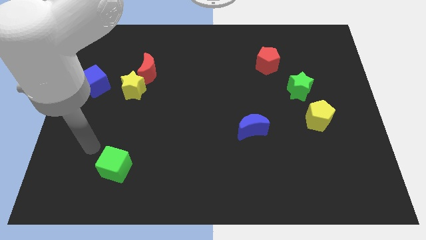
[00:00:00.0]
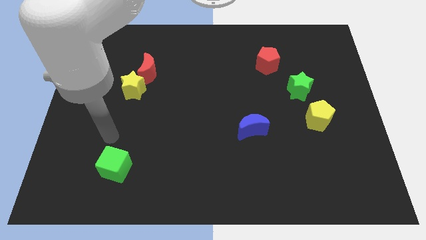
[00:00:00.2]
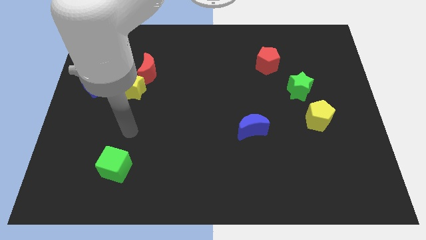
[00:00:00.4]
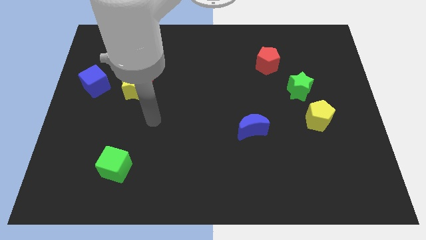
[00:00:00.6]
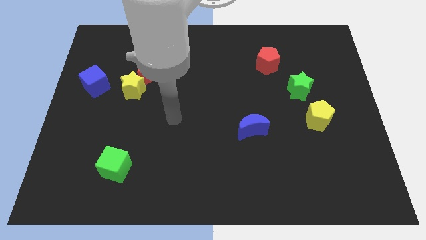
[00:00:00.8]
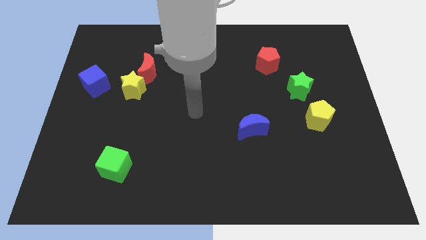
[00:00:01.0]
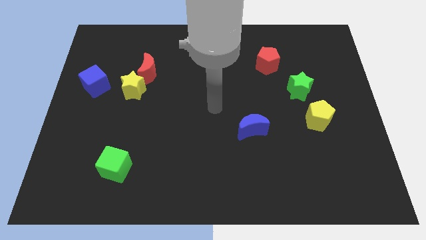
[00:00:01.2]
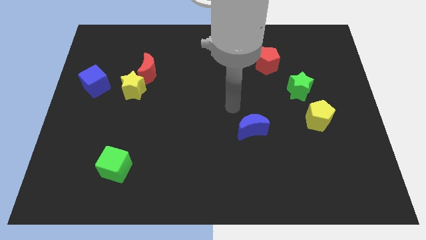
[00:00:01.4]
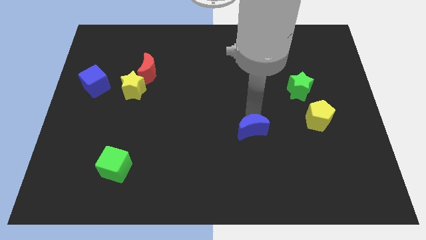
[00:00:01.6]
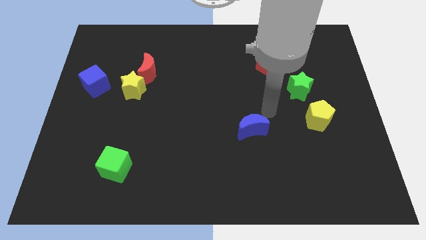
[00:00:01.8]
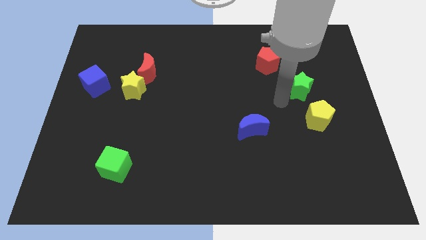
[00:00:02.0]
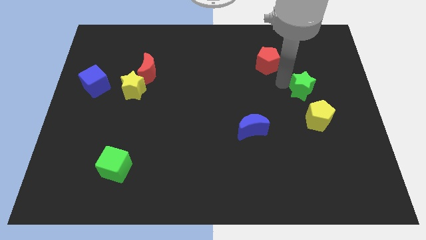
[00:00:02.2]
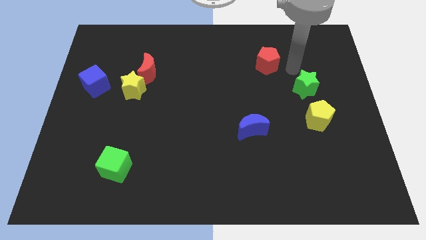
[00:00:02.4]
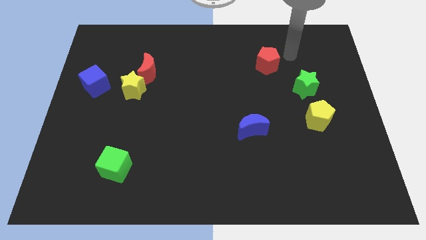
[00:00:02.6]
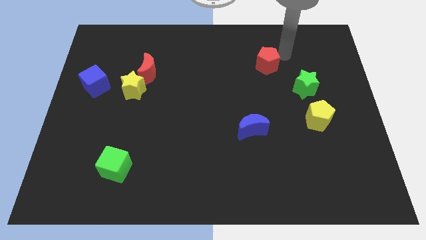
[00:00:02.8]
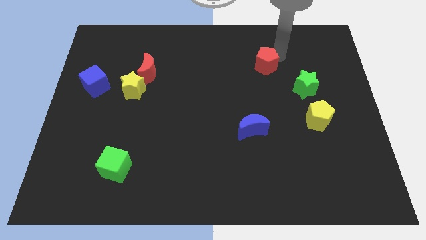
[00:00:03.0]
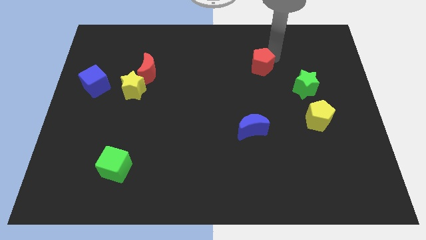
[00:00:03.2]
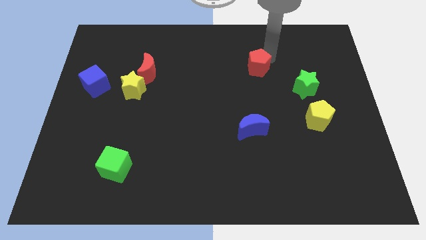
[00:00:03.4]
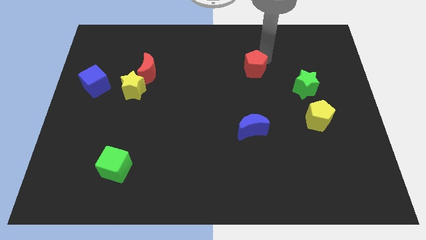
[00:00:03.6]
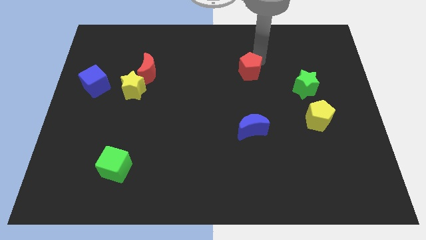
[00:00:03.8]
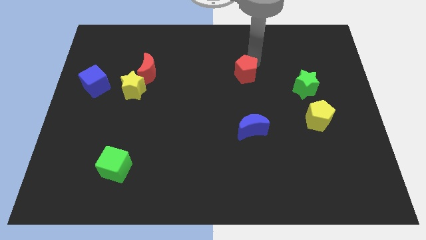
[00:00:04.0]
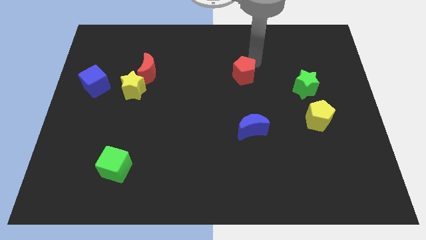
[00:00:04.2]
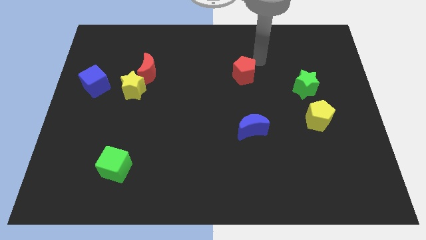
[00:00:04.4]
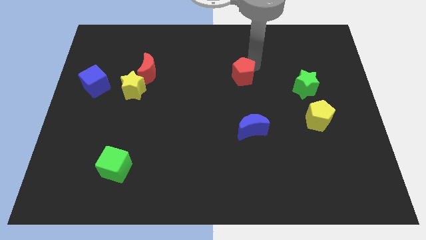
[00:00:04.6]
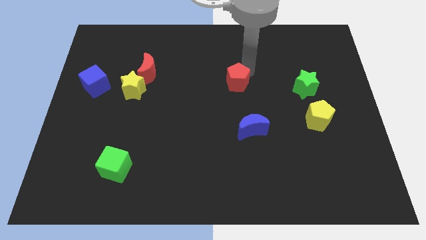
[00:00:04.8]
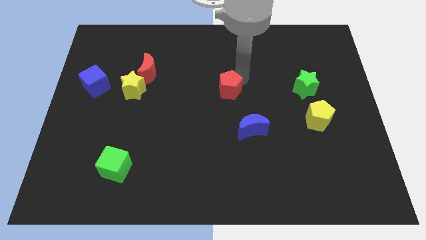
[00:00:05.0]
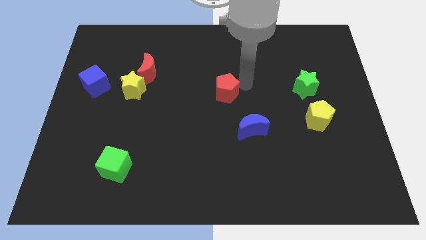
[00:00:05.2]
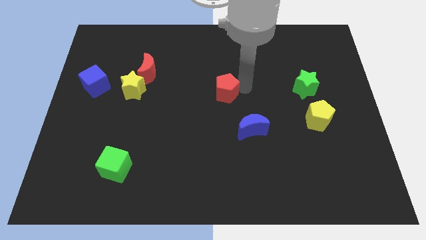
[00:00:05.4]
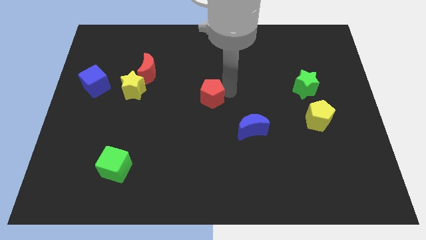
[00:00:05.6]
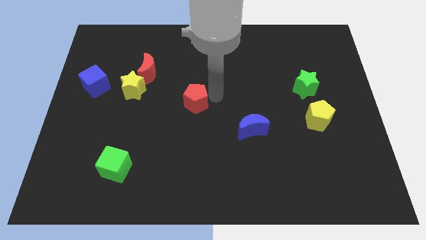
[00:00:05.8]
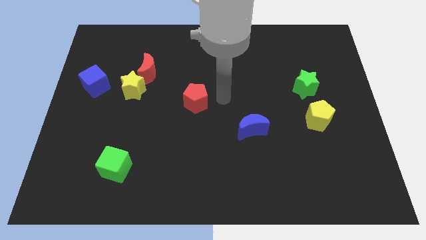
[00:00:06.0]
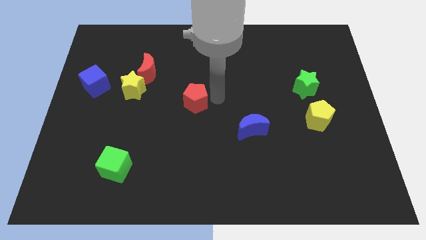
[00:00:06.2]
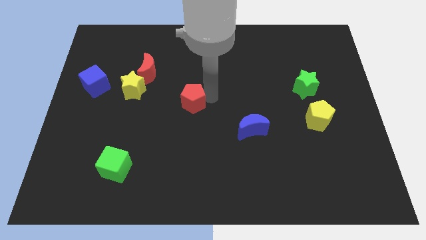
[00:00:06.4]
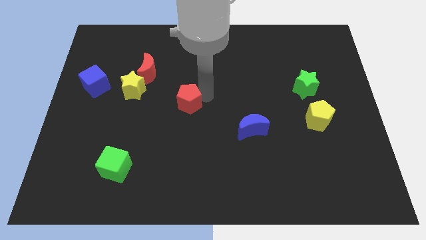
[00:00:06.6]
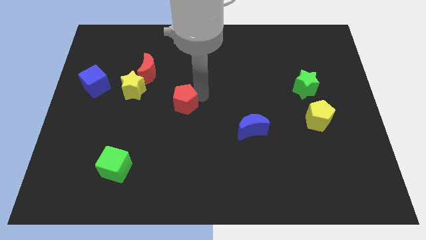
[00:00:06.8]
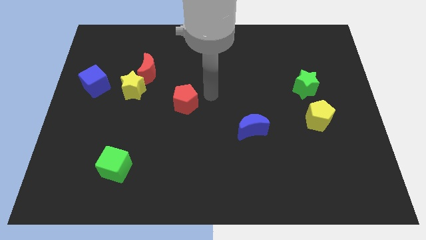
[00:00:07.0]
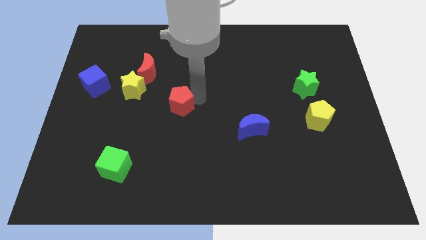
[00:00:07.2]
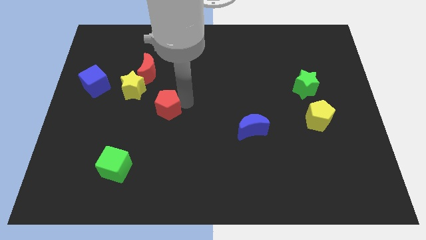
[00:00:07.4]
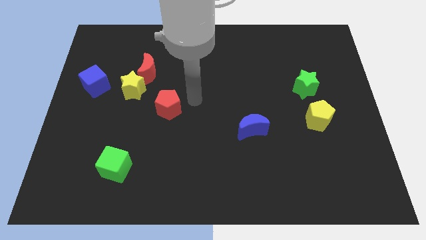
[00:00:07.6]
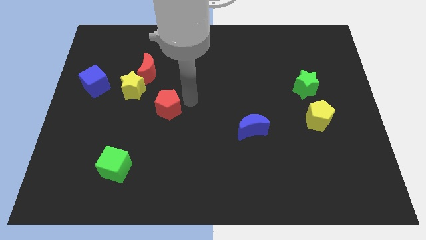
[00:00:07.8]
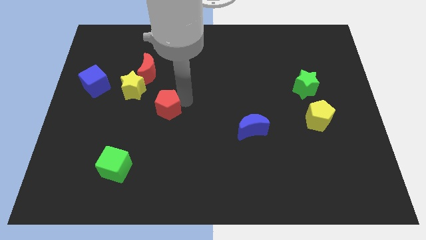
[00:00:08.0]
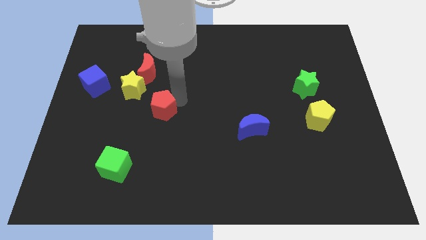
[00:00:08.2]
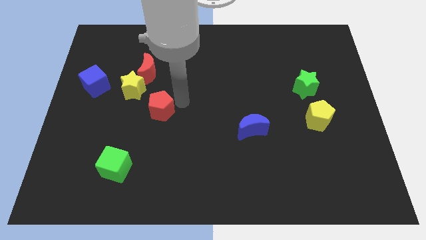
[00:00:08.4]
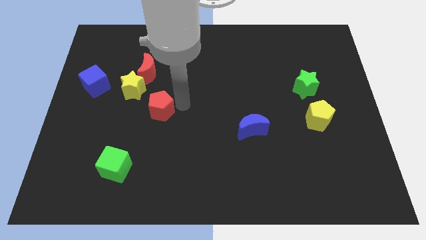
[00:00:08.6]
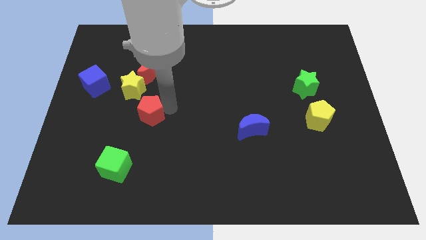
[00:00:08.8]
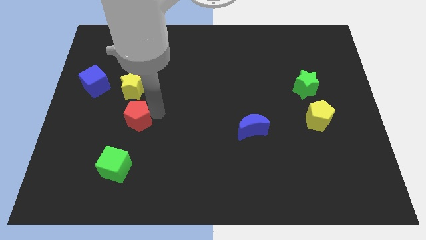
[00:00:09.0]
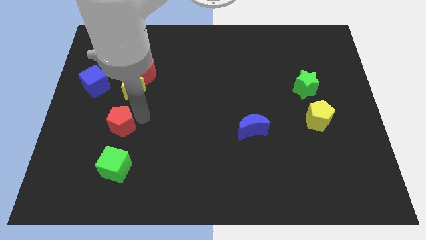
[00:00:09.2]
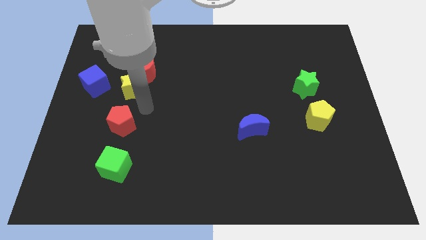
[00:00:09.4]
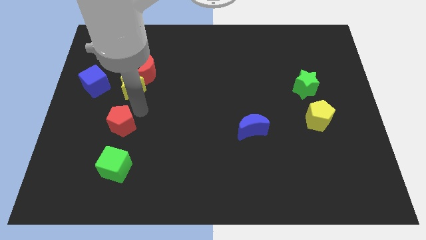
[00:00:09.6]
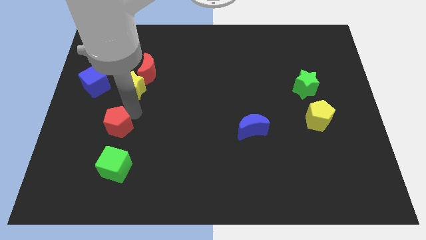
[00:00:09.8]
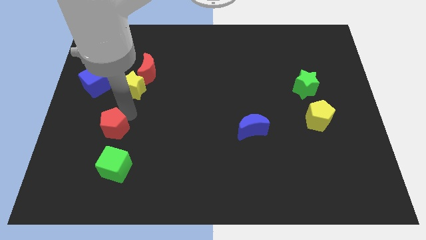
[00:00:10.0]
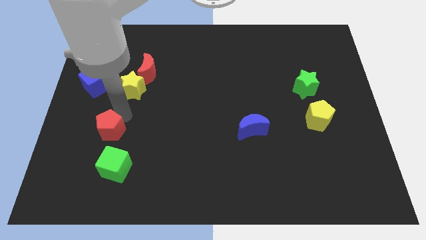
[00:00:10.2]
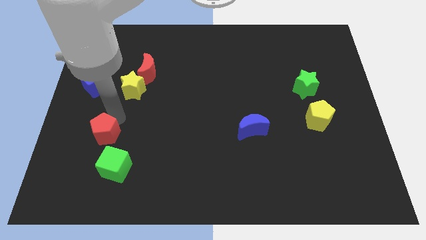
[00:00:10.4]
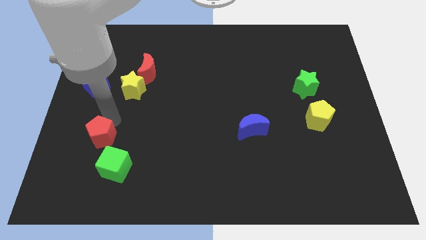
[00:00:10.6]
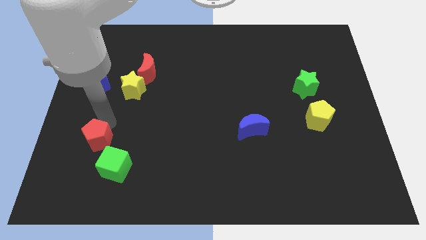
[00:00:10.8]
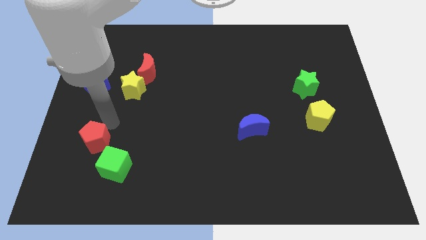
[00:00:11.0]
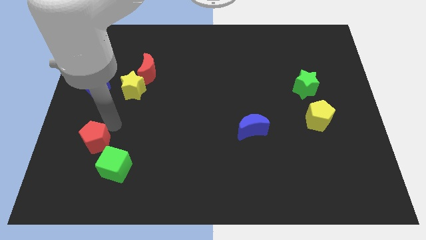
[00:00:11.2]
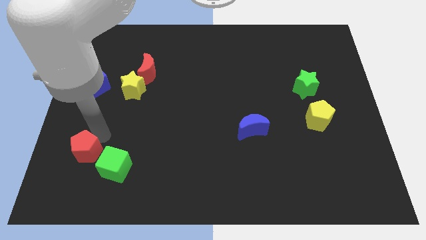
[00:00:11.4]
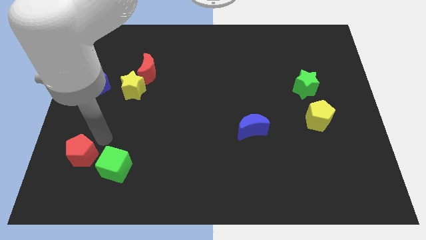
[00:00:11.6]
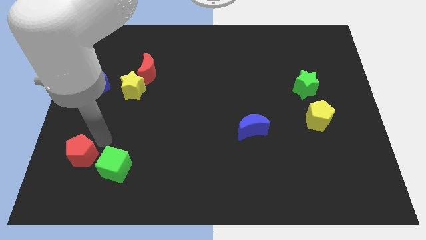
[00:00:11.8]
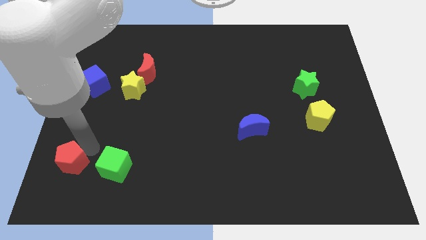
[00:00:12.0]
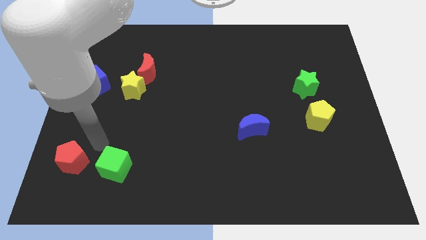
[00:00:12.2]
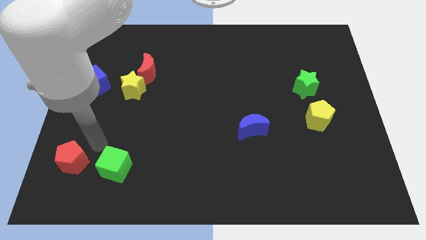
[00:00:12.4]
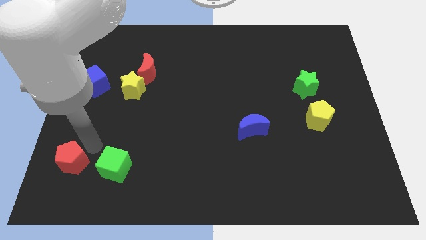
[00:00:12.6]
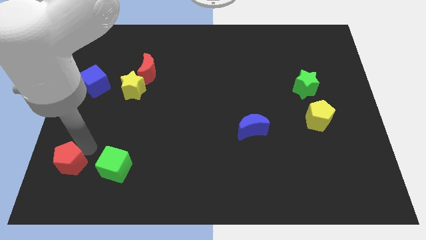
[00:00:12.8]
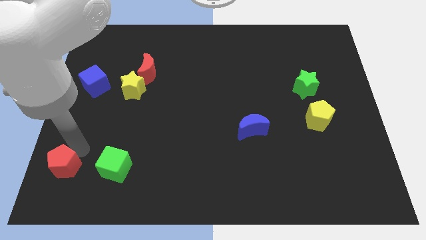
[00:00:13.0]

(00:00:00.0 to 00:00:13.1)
move the red pentagon to the lower left corner
